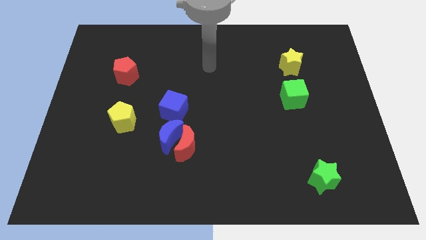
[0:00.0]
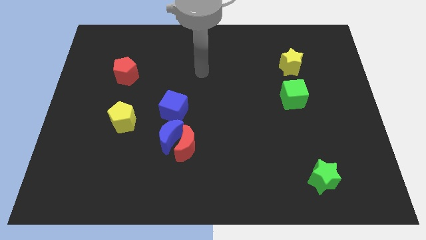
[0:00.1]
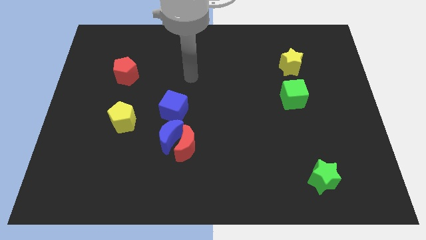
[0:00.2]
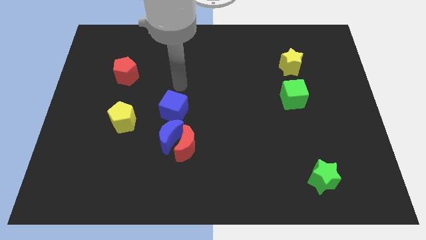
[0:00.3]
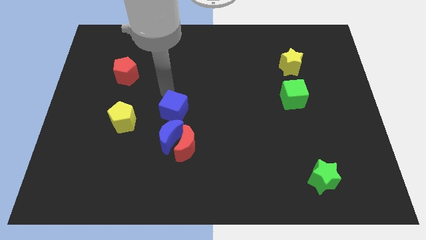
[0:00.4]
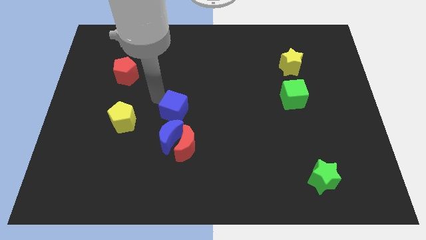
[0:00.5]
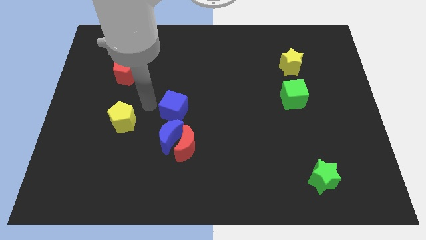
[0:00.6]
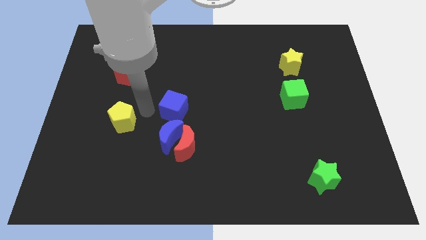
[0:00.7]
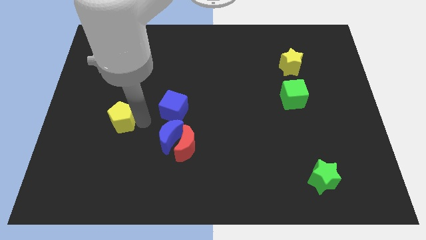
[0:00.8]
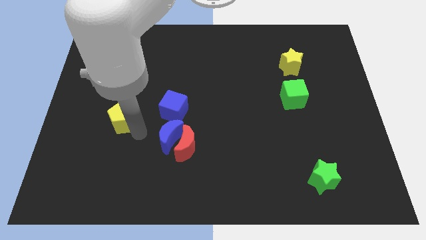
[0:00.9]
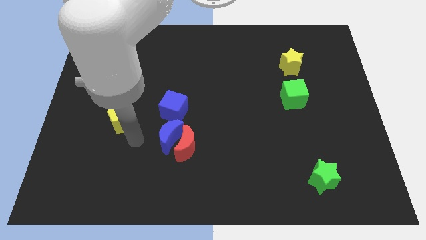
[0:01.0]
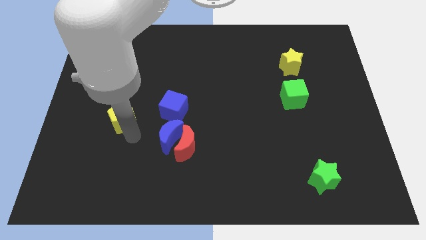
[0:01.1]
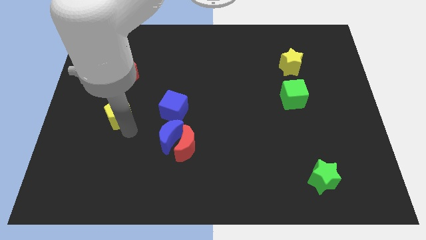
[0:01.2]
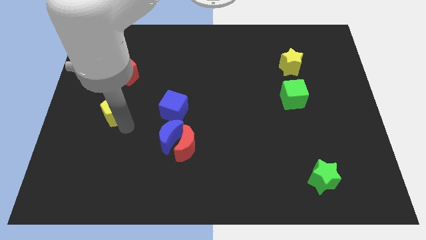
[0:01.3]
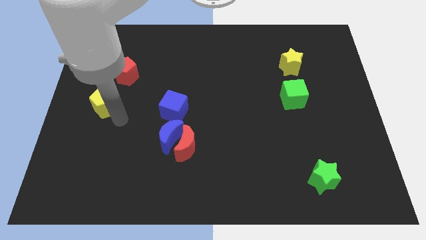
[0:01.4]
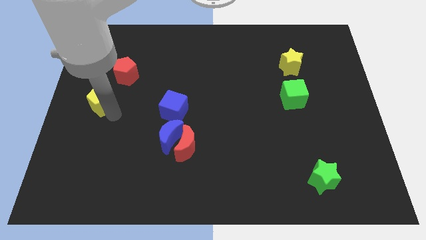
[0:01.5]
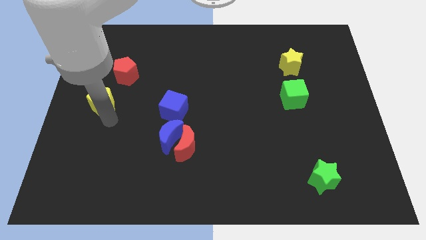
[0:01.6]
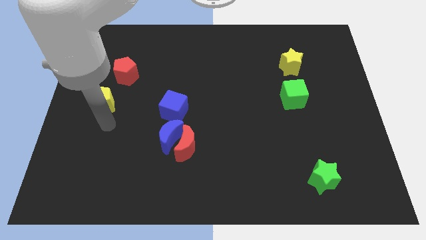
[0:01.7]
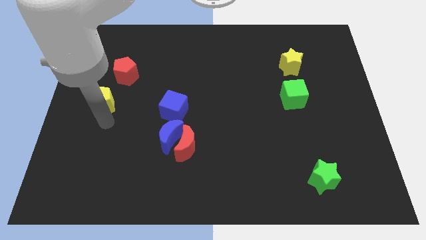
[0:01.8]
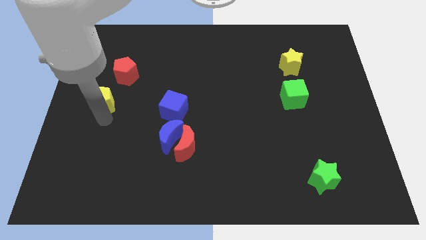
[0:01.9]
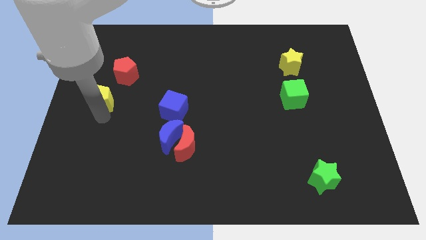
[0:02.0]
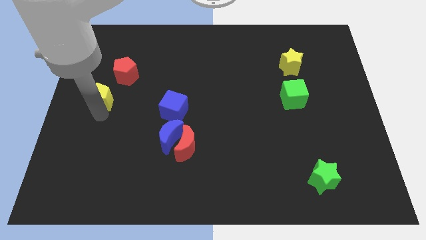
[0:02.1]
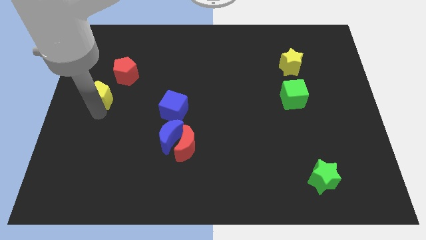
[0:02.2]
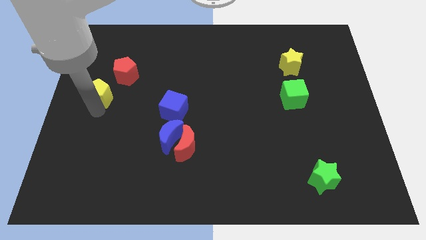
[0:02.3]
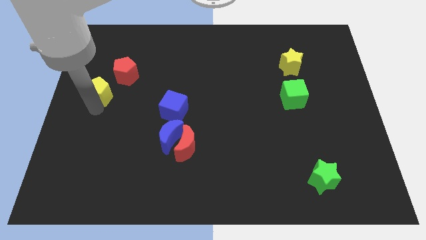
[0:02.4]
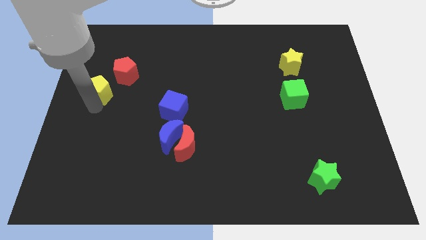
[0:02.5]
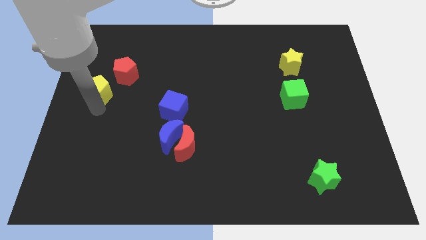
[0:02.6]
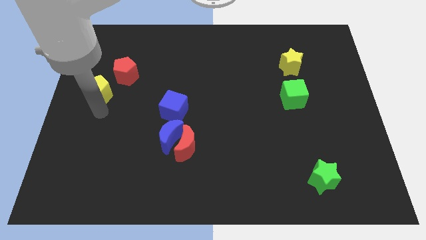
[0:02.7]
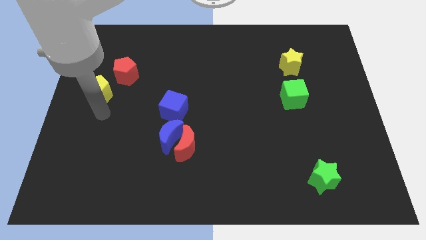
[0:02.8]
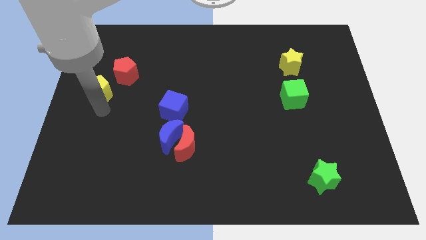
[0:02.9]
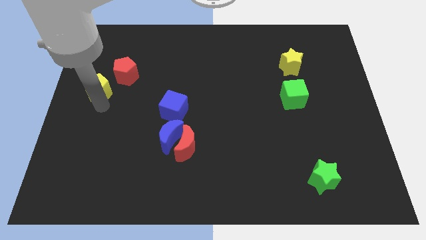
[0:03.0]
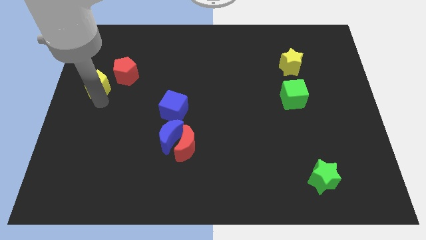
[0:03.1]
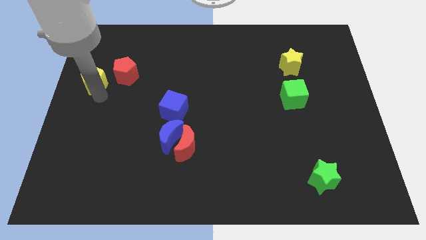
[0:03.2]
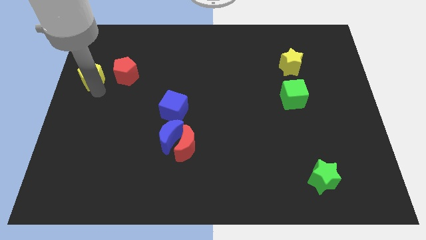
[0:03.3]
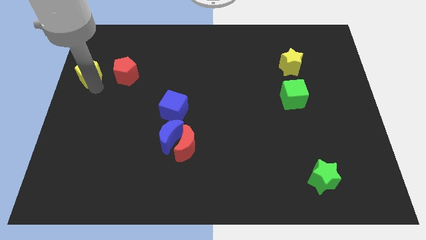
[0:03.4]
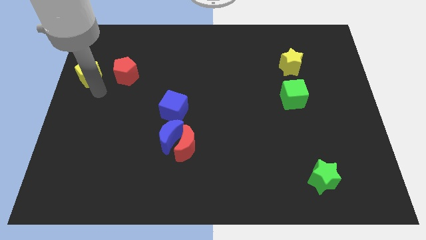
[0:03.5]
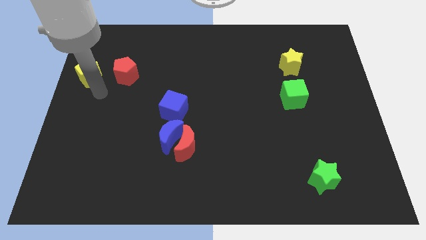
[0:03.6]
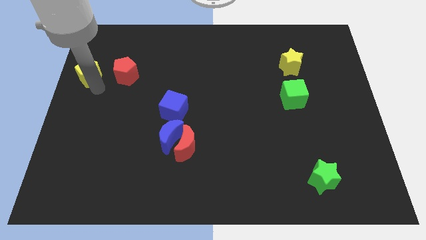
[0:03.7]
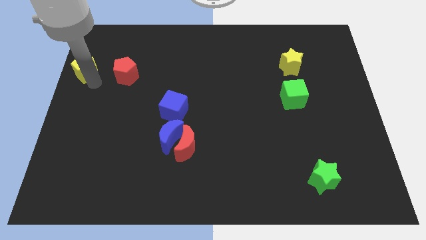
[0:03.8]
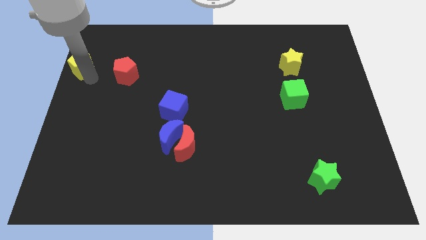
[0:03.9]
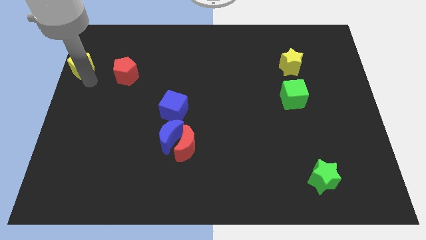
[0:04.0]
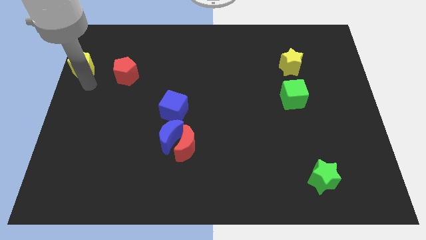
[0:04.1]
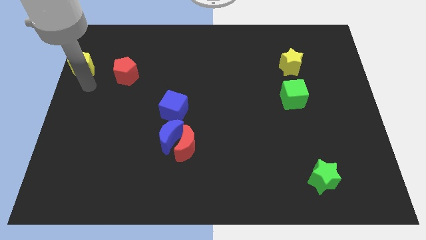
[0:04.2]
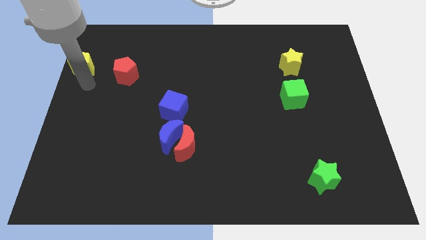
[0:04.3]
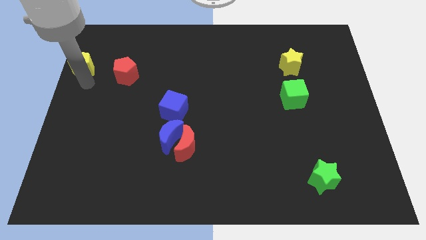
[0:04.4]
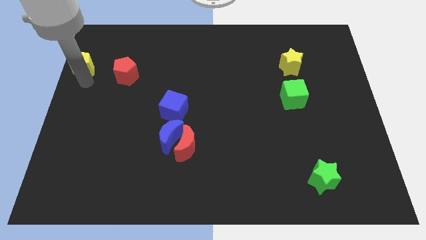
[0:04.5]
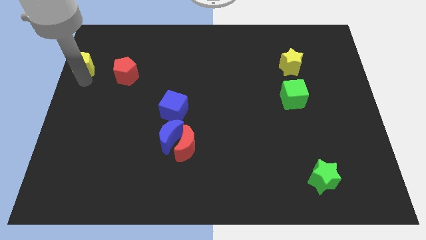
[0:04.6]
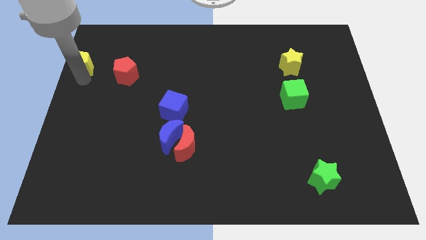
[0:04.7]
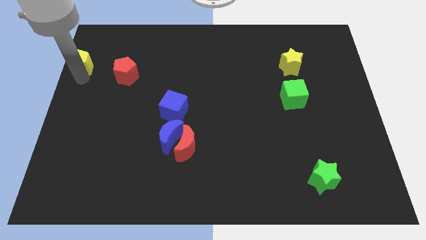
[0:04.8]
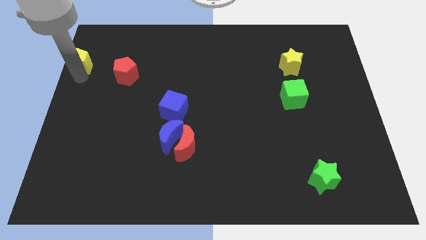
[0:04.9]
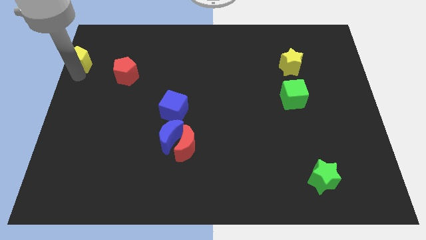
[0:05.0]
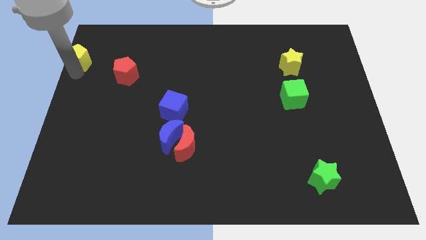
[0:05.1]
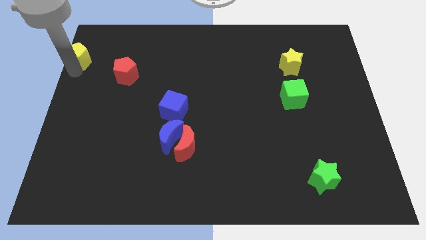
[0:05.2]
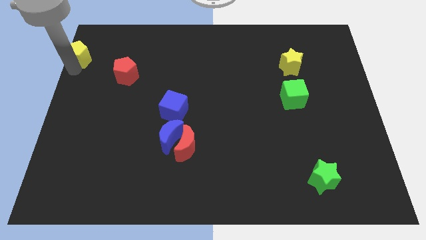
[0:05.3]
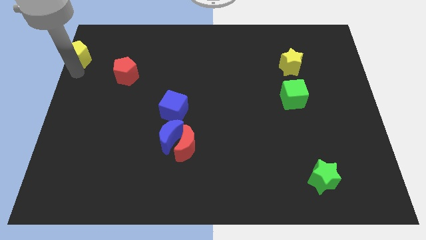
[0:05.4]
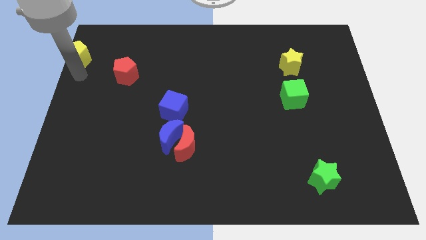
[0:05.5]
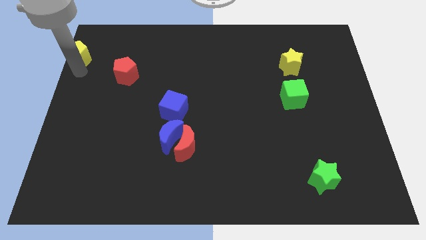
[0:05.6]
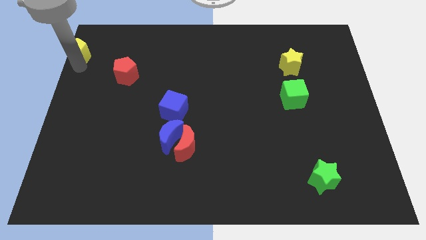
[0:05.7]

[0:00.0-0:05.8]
push the yellow pentagon to the top left of the board
